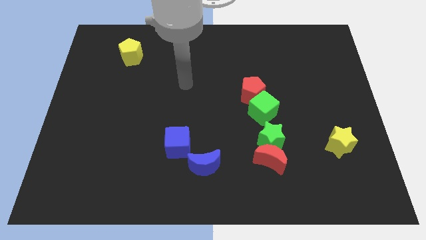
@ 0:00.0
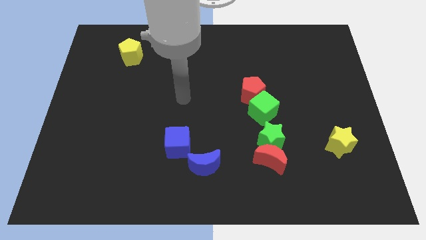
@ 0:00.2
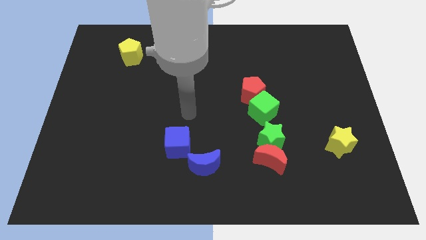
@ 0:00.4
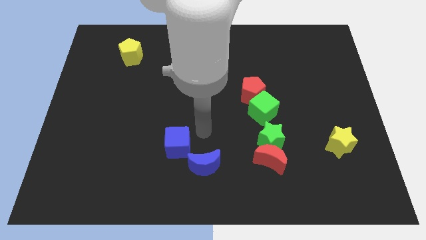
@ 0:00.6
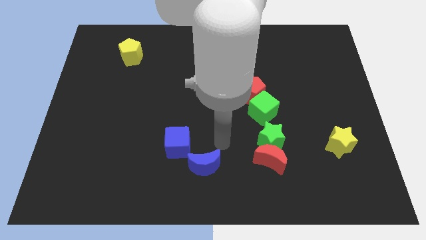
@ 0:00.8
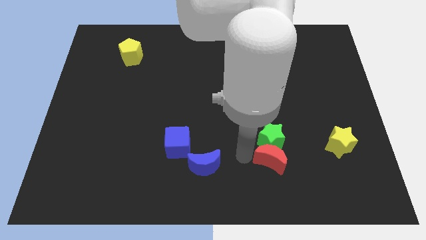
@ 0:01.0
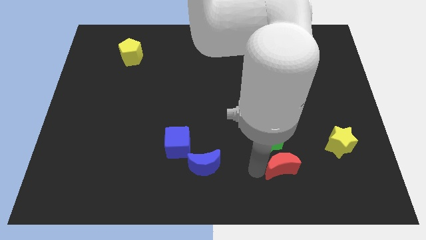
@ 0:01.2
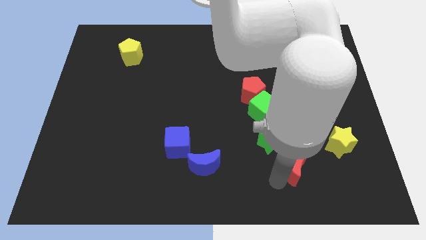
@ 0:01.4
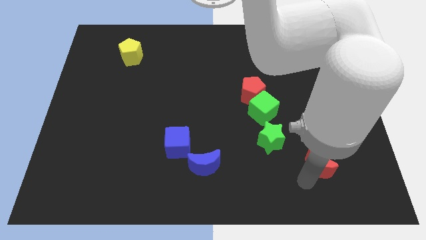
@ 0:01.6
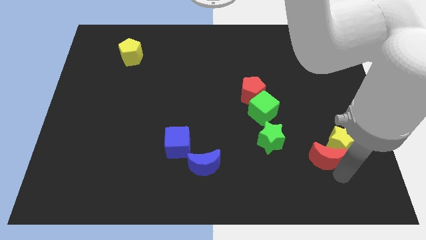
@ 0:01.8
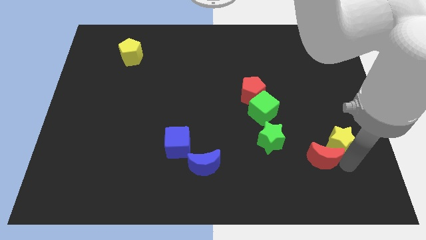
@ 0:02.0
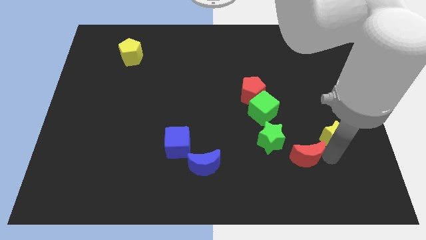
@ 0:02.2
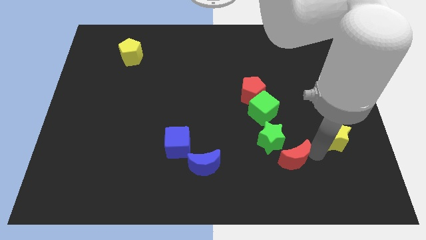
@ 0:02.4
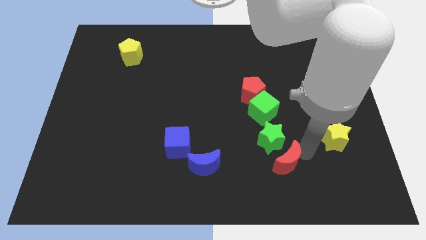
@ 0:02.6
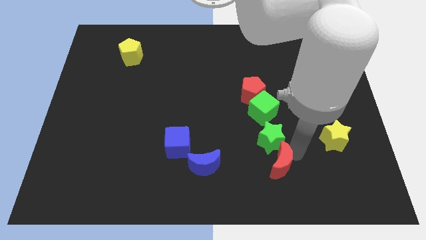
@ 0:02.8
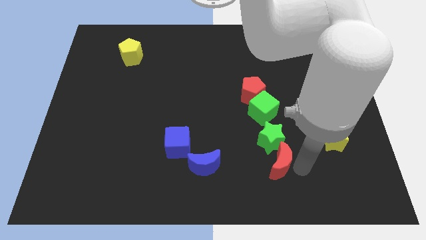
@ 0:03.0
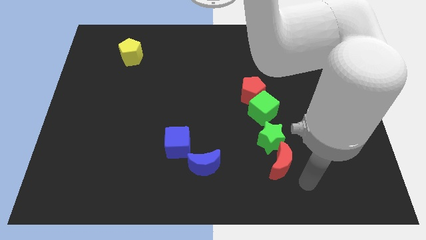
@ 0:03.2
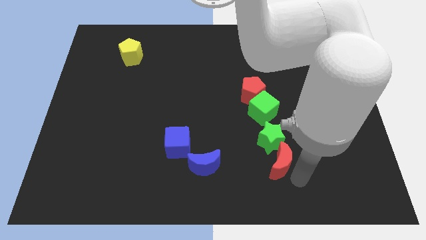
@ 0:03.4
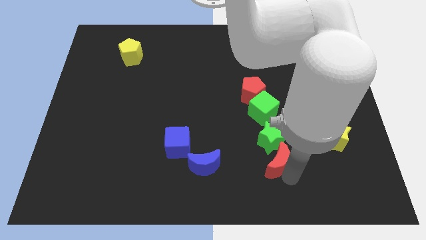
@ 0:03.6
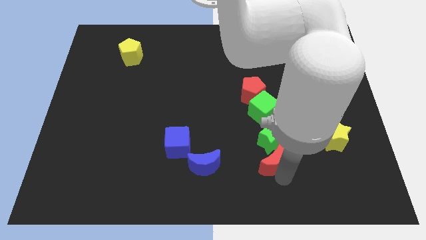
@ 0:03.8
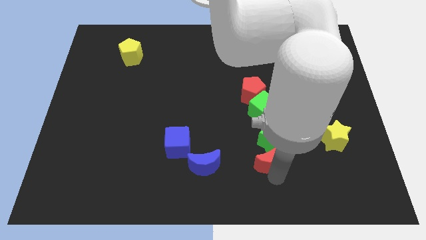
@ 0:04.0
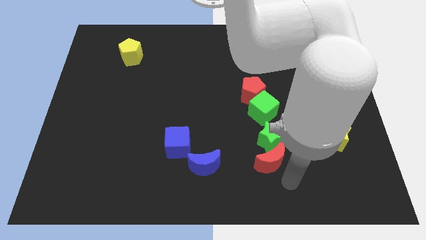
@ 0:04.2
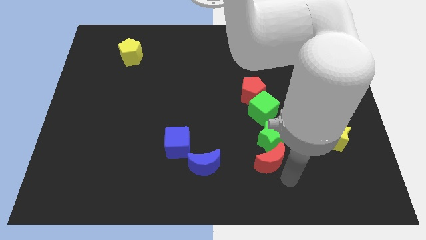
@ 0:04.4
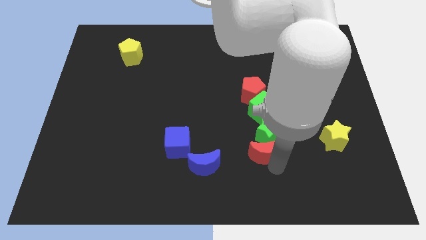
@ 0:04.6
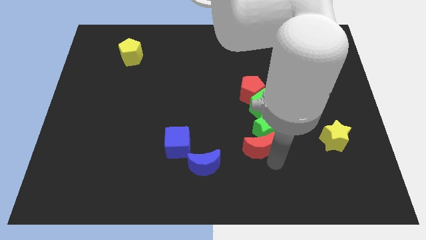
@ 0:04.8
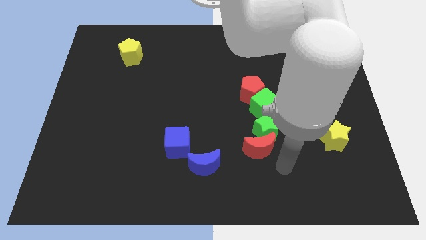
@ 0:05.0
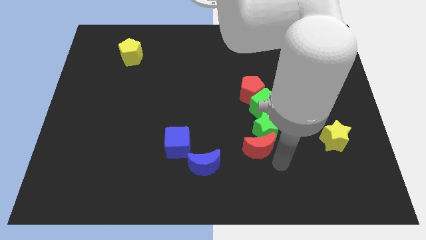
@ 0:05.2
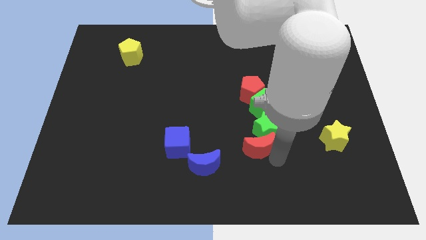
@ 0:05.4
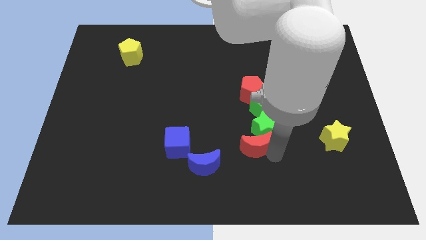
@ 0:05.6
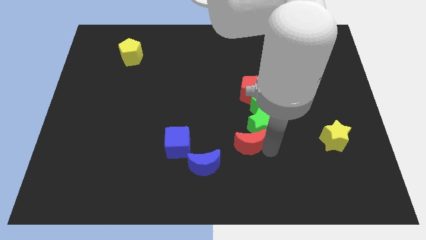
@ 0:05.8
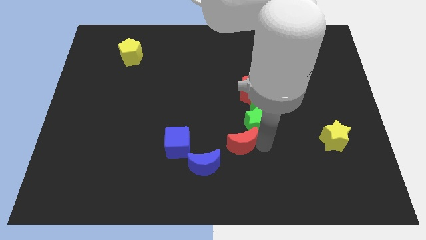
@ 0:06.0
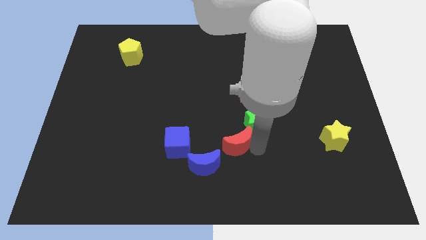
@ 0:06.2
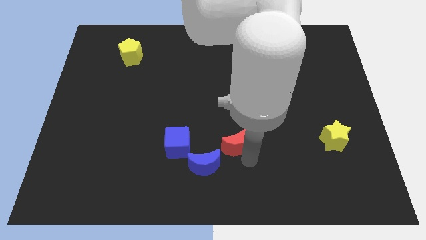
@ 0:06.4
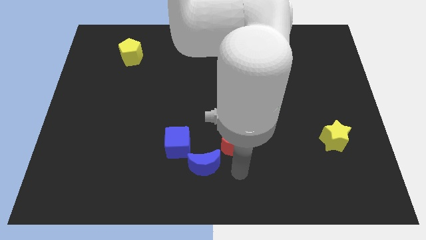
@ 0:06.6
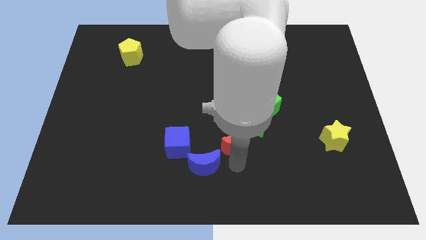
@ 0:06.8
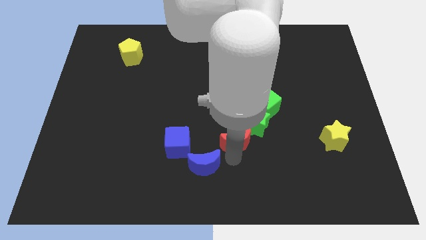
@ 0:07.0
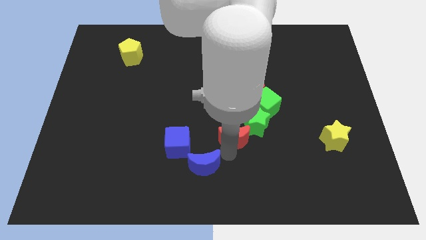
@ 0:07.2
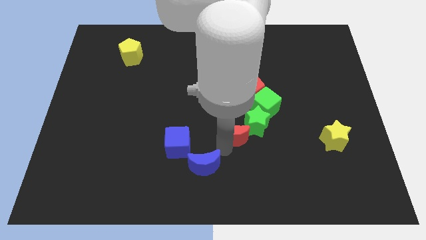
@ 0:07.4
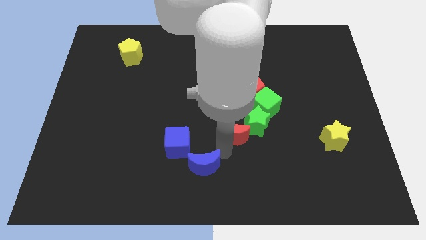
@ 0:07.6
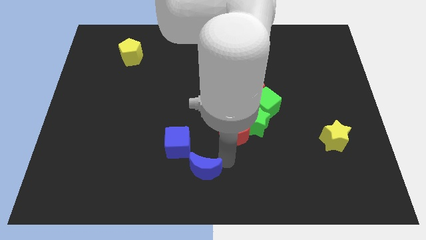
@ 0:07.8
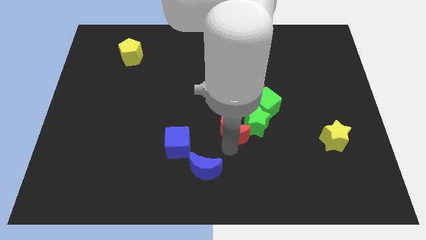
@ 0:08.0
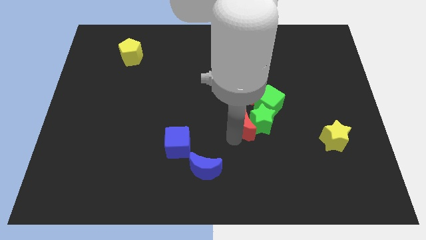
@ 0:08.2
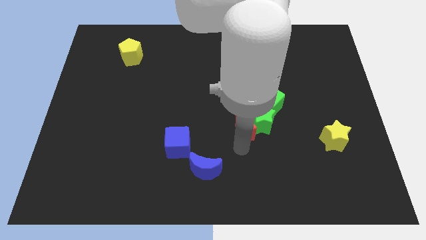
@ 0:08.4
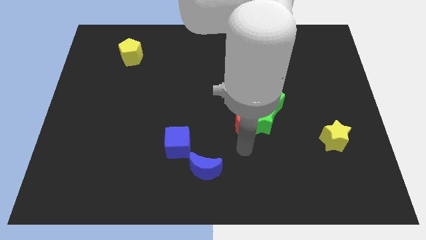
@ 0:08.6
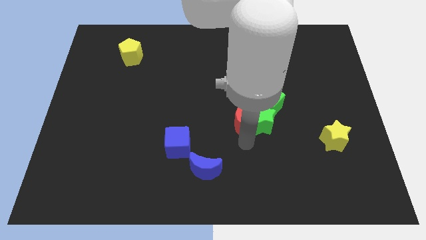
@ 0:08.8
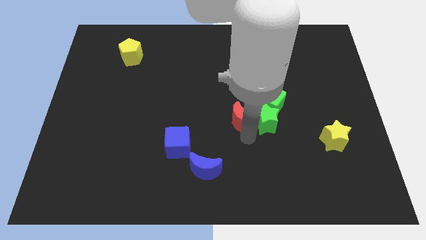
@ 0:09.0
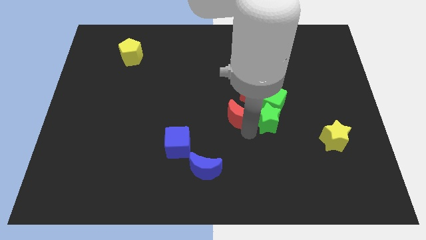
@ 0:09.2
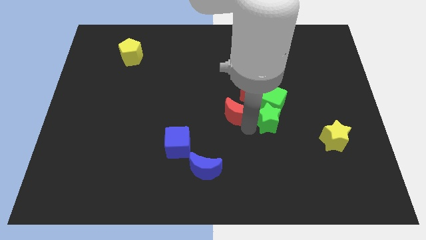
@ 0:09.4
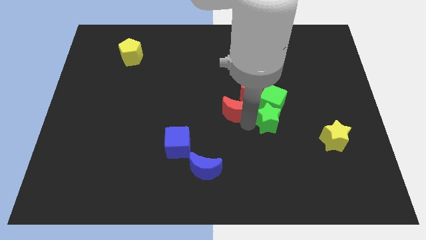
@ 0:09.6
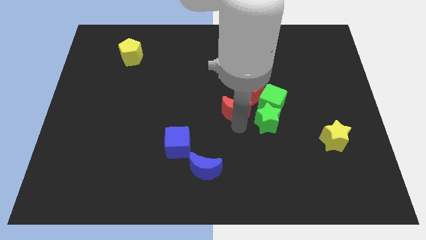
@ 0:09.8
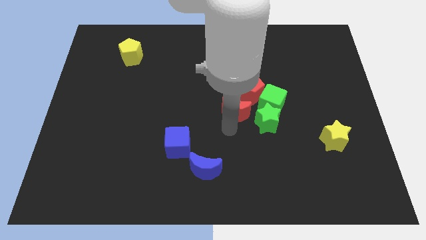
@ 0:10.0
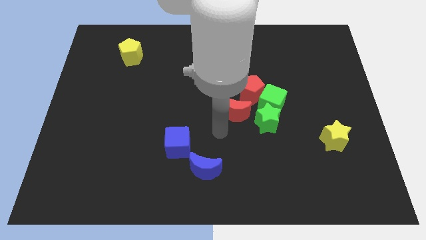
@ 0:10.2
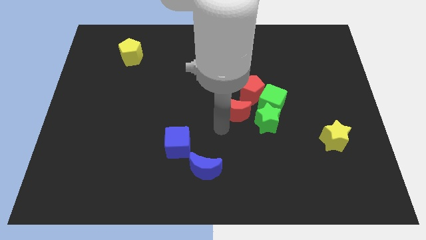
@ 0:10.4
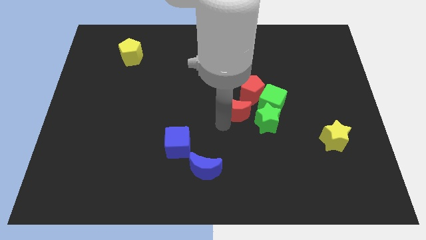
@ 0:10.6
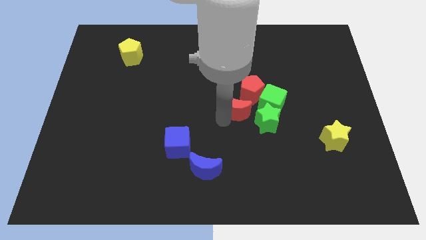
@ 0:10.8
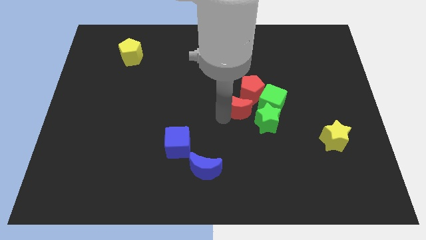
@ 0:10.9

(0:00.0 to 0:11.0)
push the red moon to the red pentagon

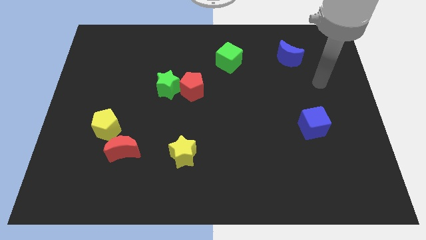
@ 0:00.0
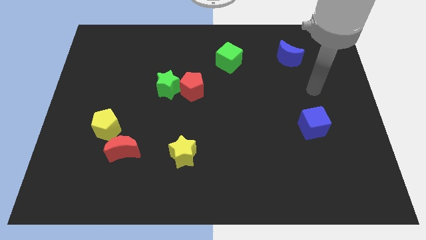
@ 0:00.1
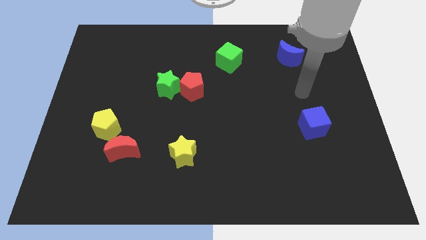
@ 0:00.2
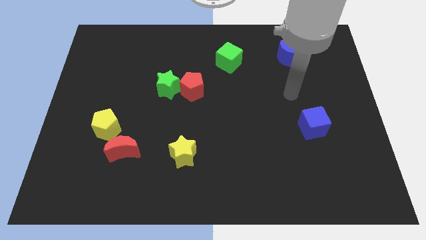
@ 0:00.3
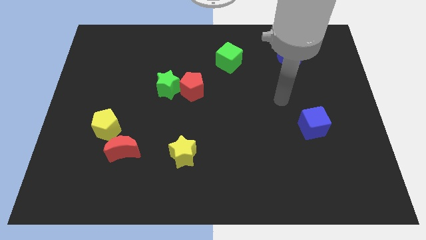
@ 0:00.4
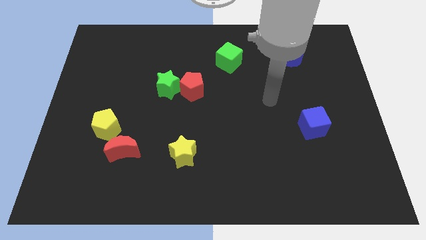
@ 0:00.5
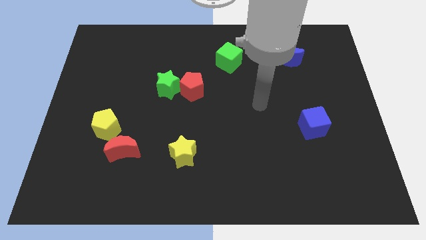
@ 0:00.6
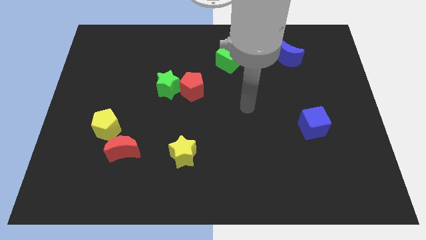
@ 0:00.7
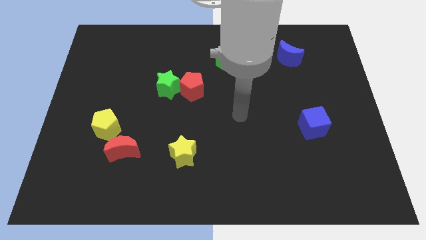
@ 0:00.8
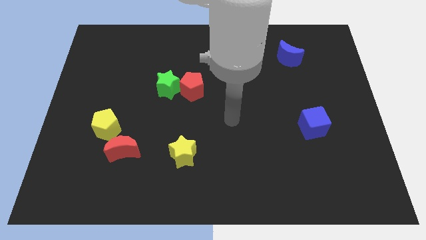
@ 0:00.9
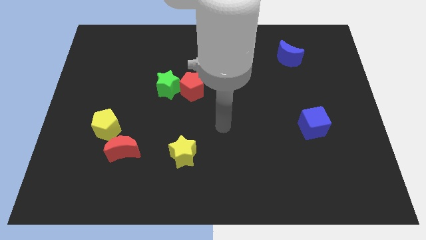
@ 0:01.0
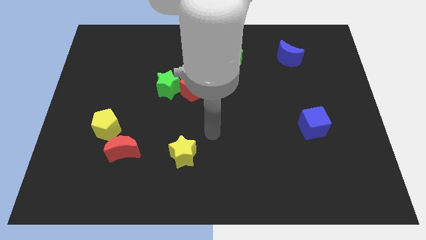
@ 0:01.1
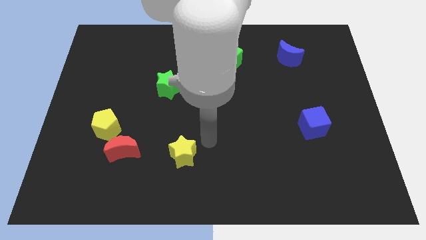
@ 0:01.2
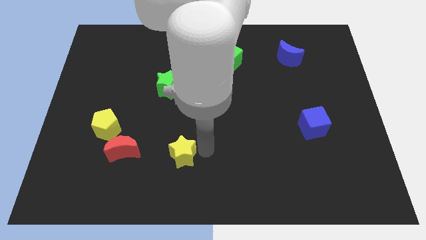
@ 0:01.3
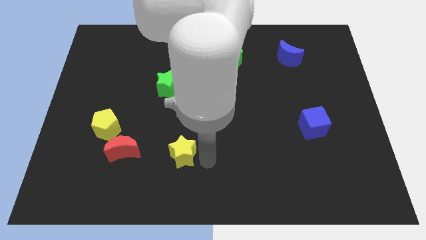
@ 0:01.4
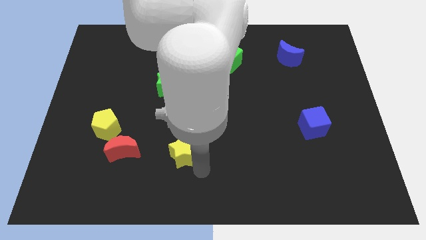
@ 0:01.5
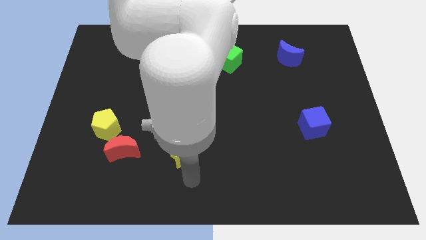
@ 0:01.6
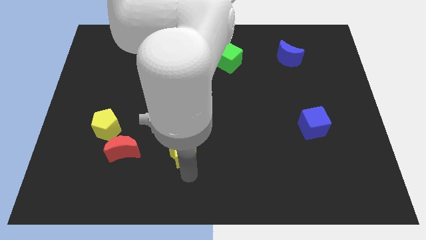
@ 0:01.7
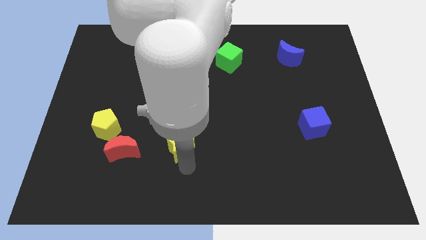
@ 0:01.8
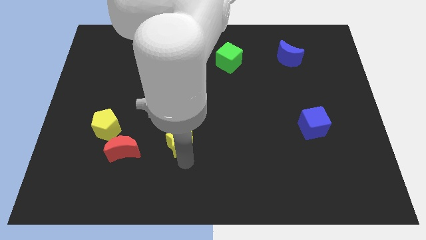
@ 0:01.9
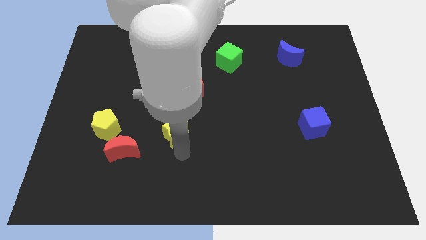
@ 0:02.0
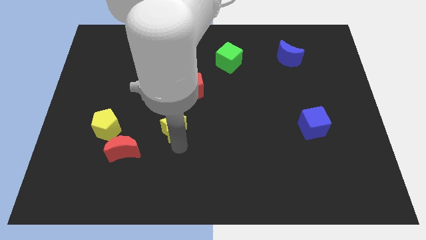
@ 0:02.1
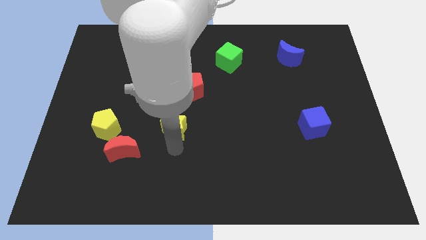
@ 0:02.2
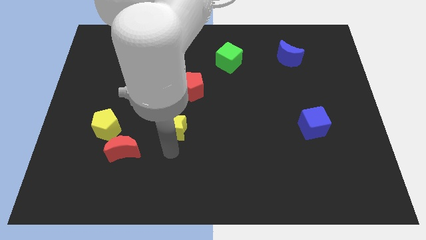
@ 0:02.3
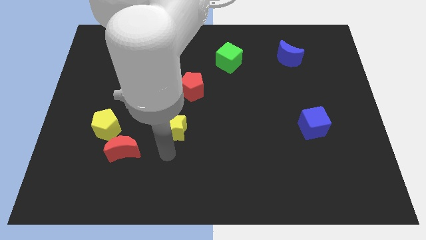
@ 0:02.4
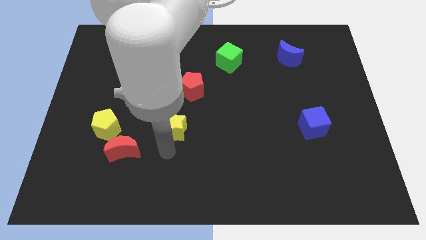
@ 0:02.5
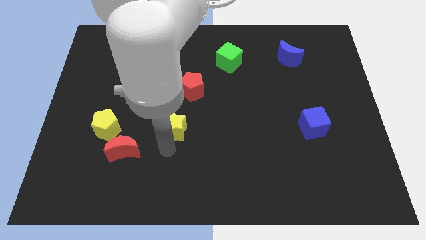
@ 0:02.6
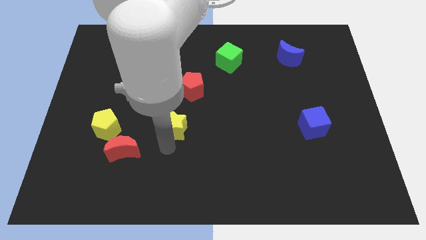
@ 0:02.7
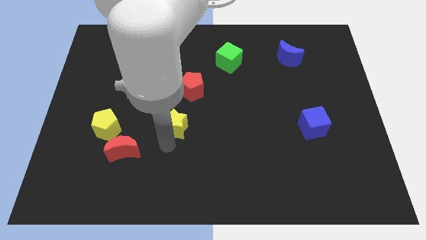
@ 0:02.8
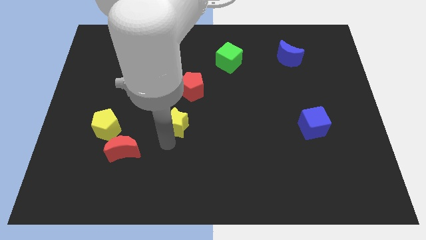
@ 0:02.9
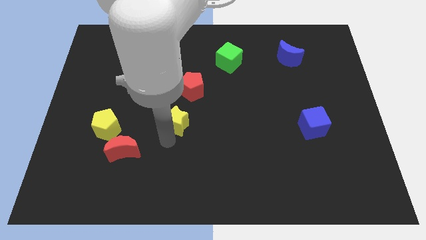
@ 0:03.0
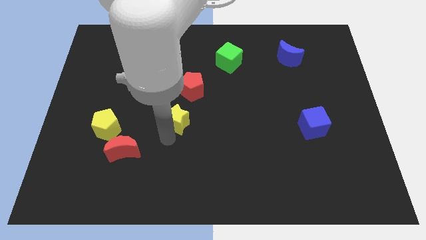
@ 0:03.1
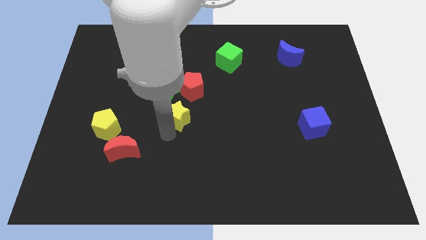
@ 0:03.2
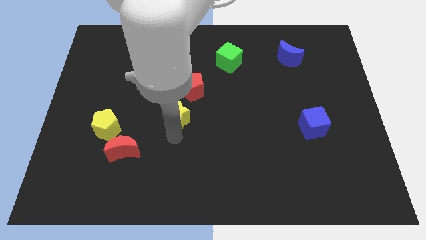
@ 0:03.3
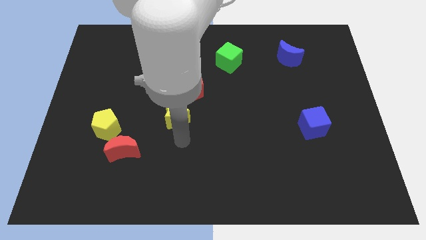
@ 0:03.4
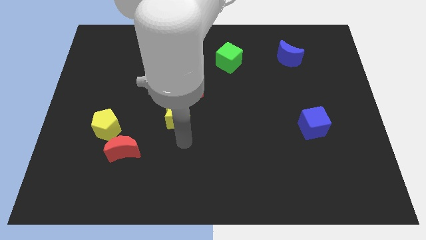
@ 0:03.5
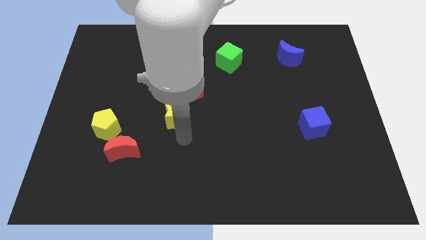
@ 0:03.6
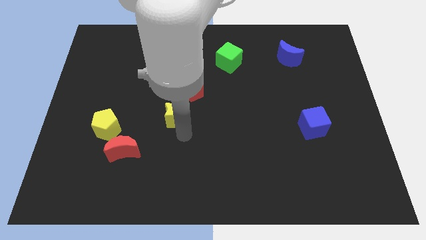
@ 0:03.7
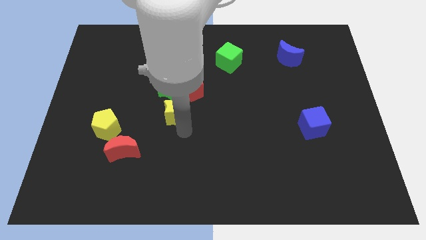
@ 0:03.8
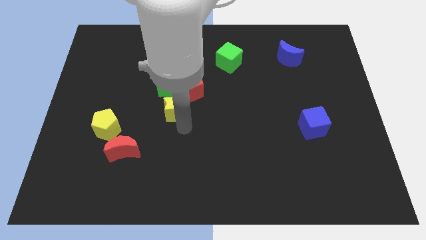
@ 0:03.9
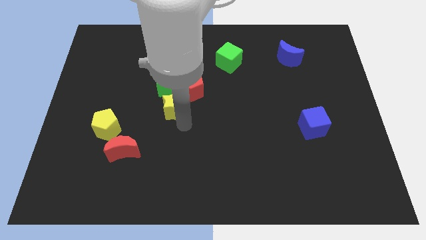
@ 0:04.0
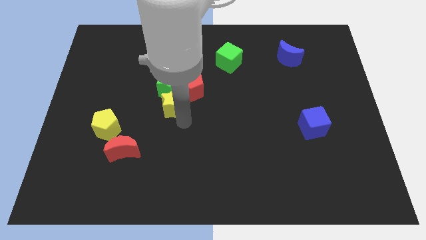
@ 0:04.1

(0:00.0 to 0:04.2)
move the yellow star towards the green star
